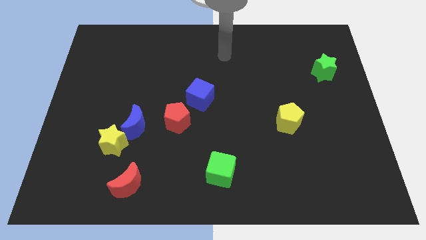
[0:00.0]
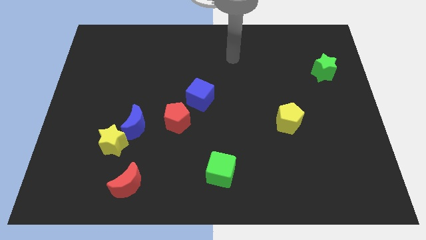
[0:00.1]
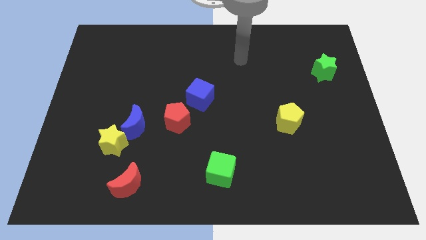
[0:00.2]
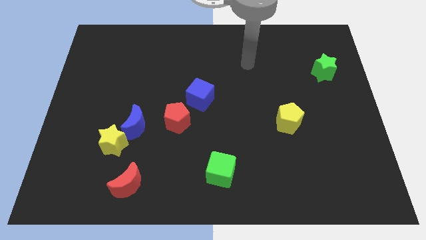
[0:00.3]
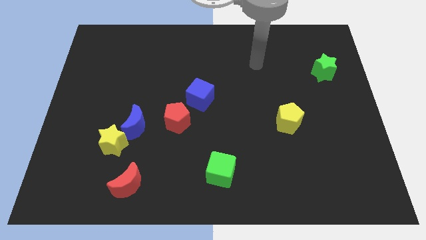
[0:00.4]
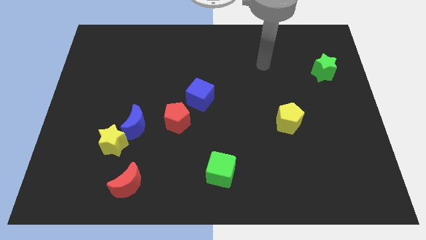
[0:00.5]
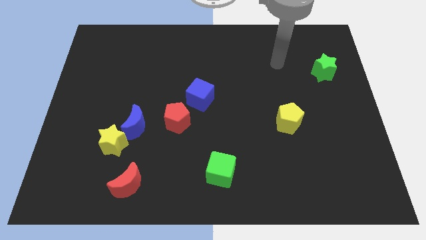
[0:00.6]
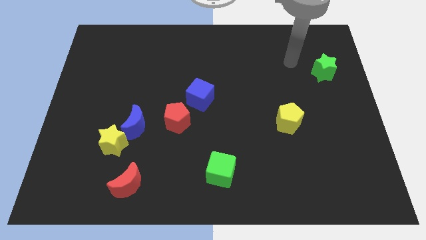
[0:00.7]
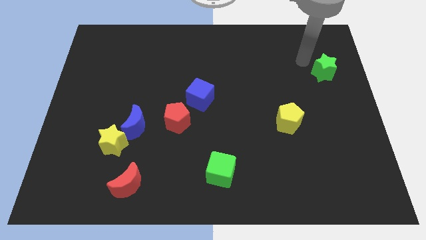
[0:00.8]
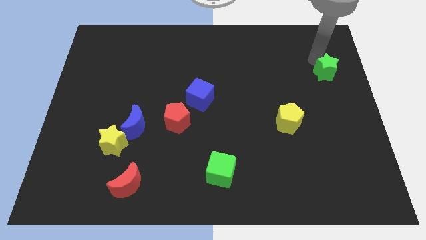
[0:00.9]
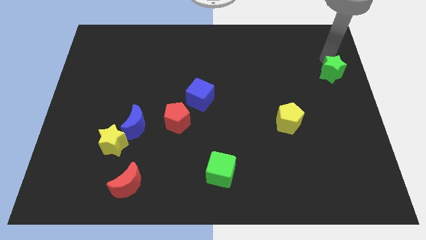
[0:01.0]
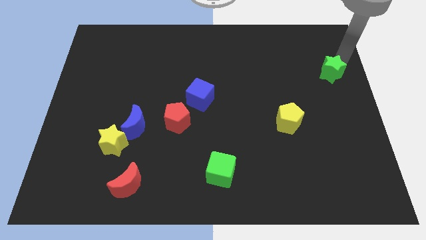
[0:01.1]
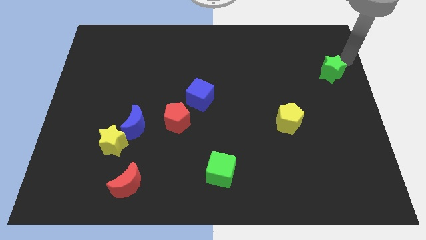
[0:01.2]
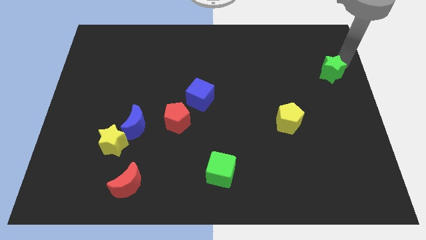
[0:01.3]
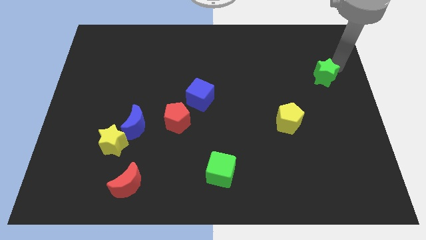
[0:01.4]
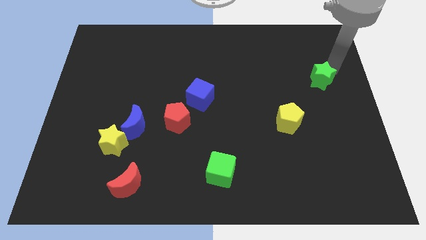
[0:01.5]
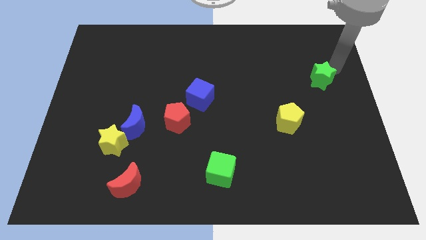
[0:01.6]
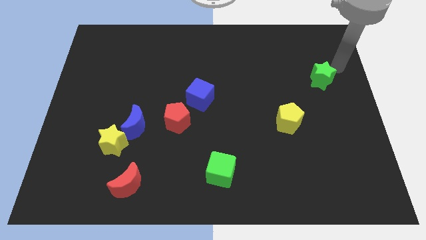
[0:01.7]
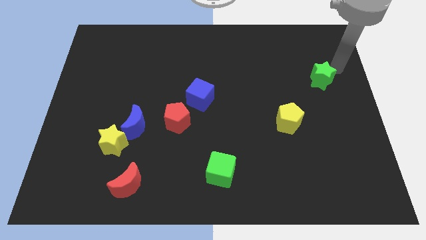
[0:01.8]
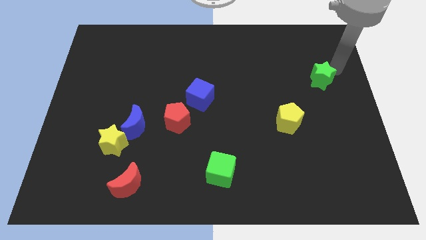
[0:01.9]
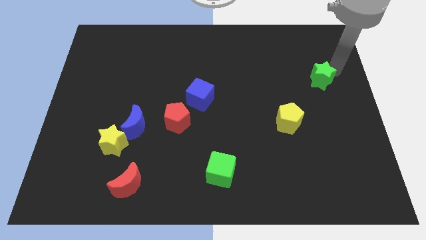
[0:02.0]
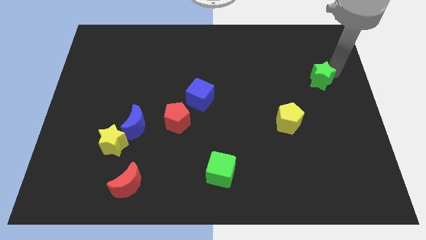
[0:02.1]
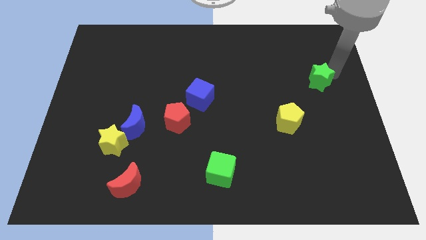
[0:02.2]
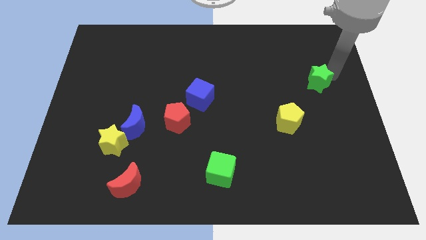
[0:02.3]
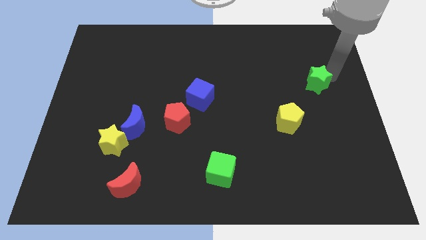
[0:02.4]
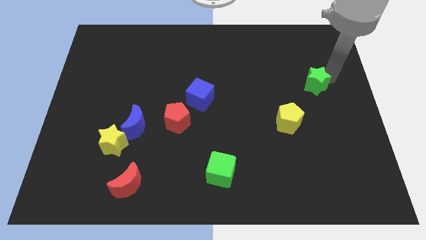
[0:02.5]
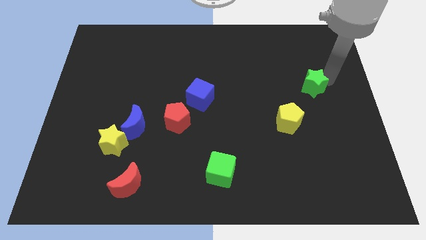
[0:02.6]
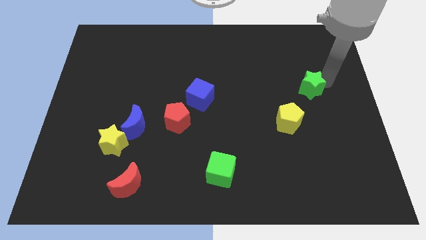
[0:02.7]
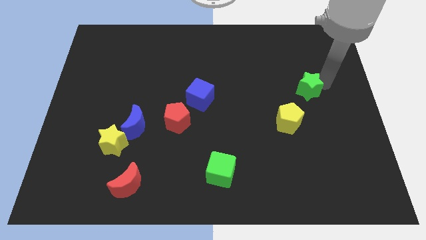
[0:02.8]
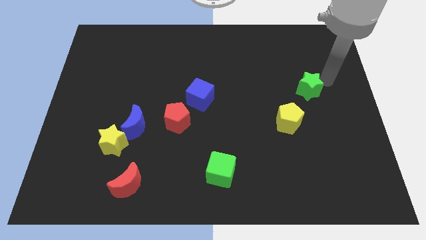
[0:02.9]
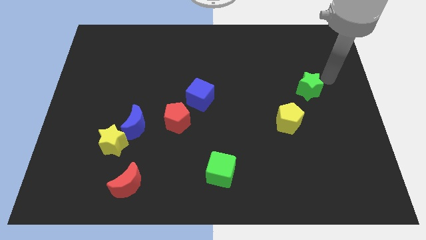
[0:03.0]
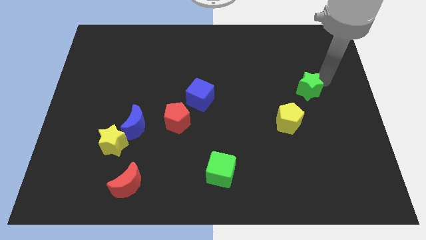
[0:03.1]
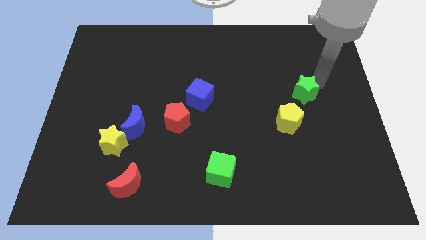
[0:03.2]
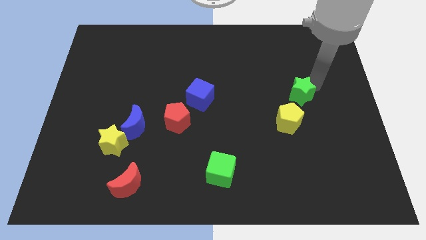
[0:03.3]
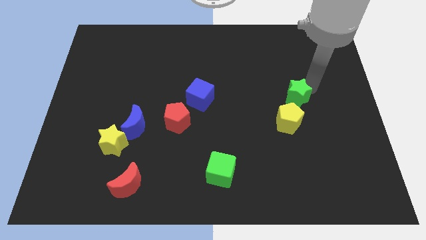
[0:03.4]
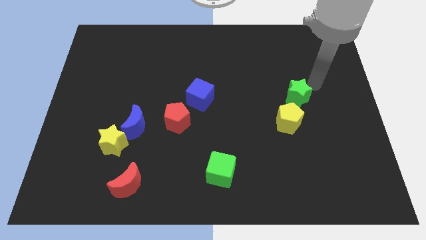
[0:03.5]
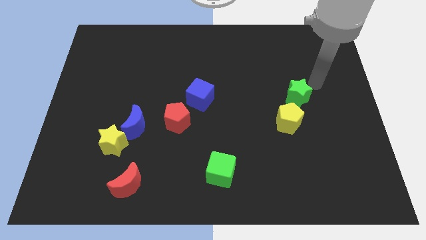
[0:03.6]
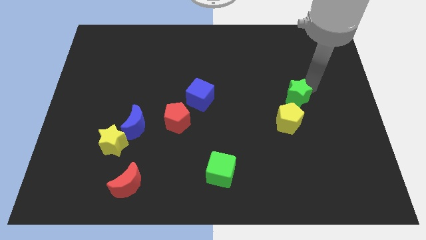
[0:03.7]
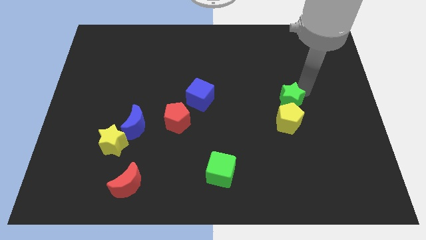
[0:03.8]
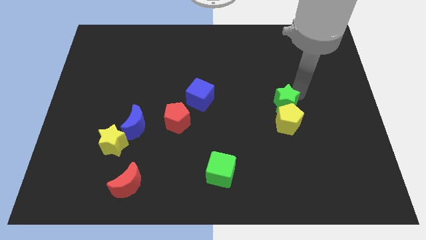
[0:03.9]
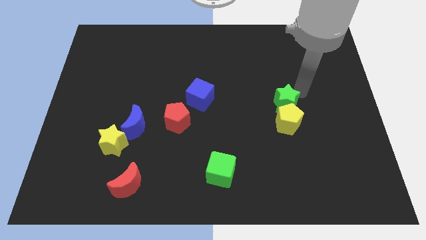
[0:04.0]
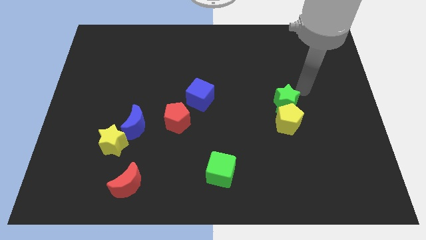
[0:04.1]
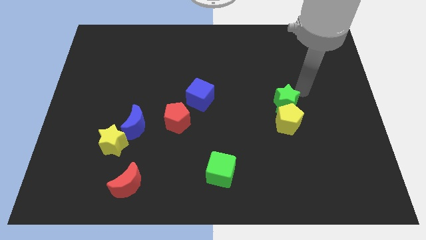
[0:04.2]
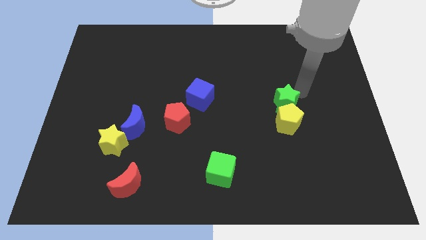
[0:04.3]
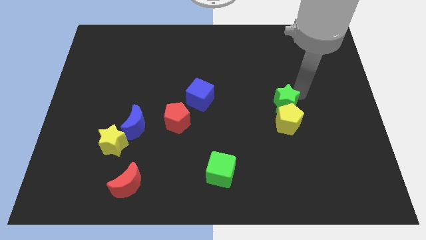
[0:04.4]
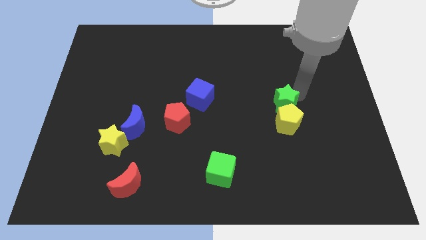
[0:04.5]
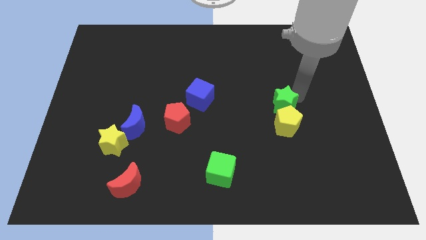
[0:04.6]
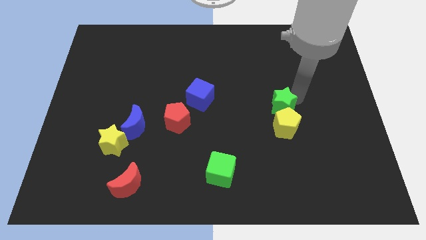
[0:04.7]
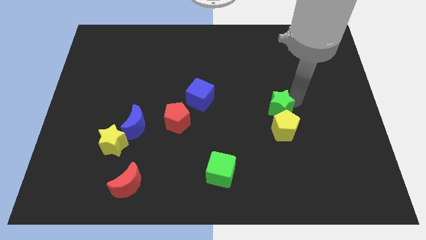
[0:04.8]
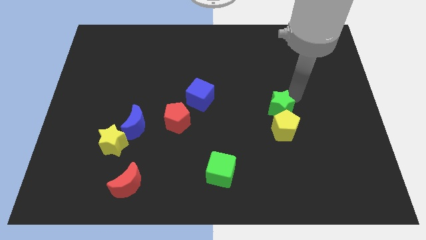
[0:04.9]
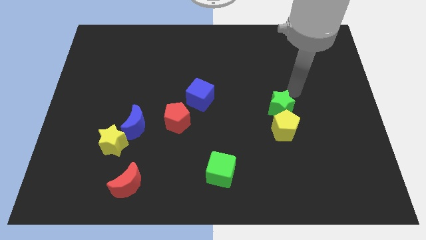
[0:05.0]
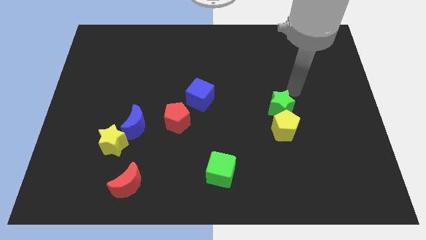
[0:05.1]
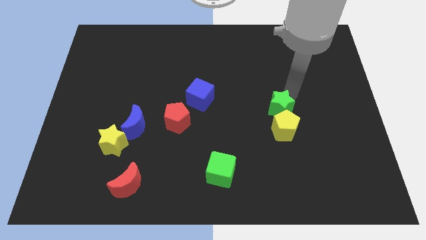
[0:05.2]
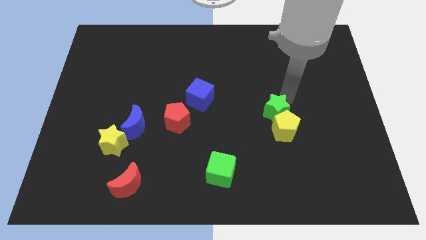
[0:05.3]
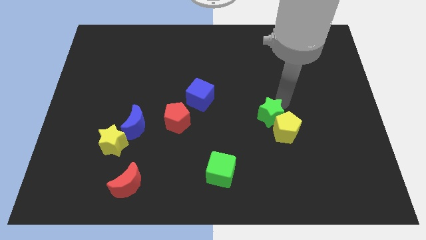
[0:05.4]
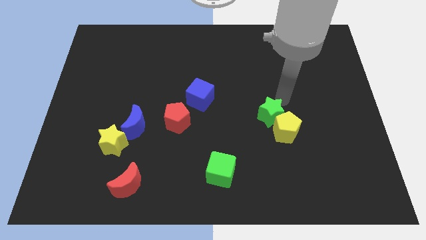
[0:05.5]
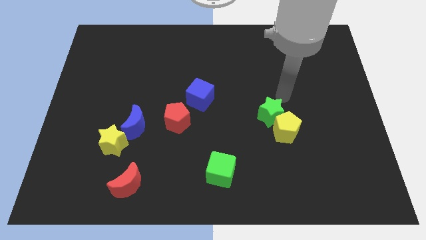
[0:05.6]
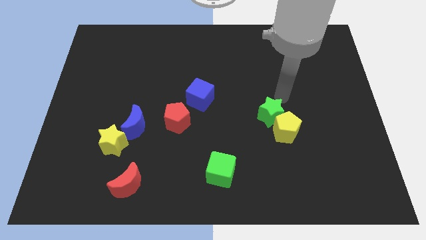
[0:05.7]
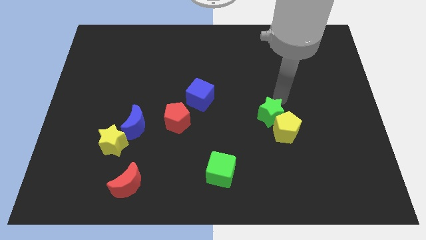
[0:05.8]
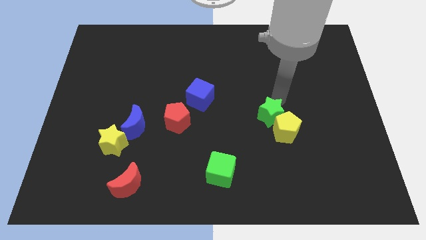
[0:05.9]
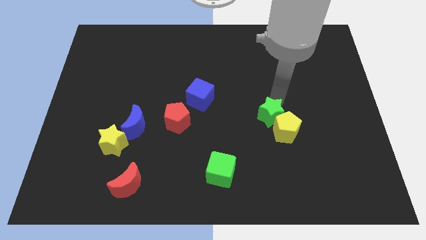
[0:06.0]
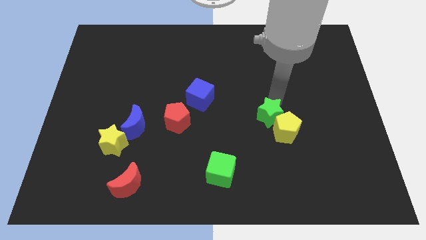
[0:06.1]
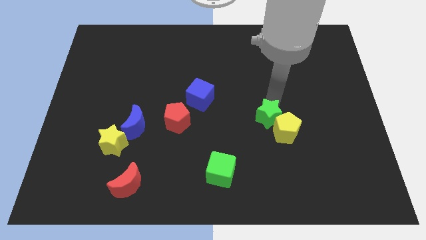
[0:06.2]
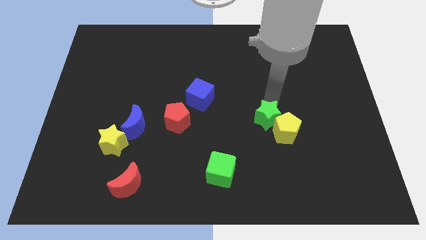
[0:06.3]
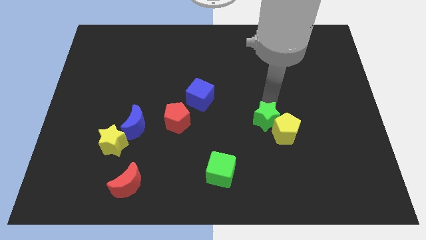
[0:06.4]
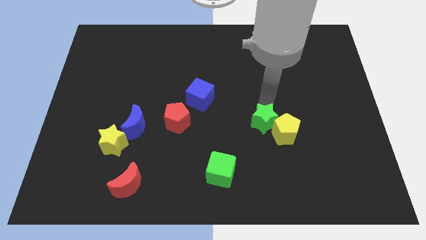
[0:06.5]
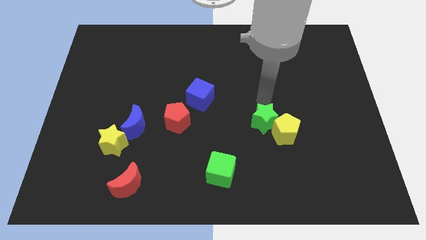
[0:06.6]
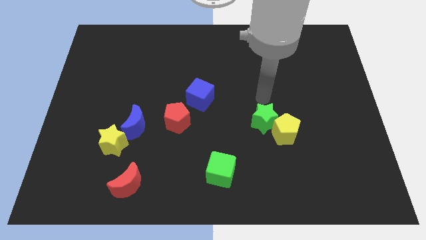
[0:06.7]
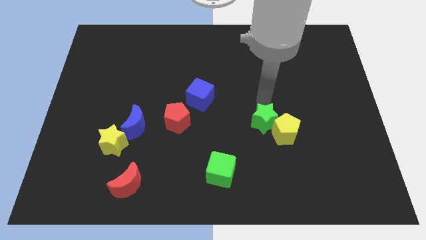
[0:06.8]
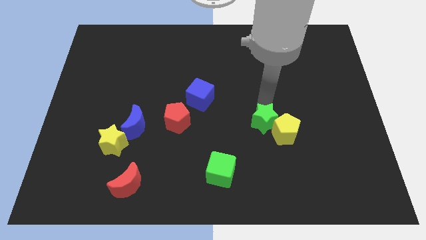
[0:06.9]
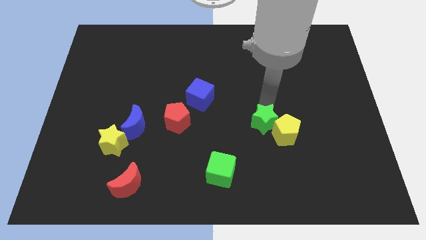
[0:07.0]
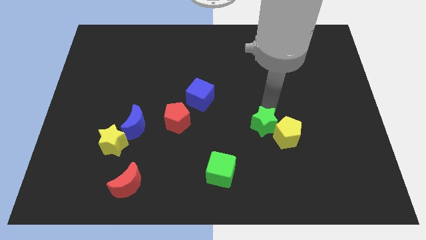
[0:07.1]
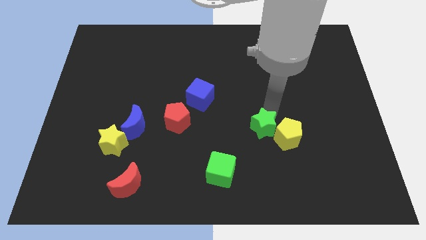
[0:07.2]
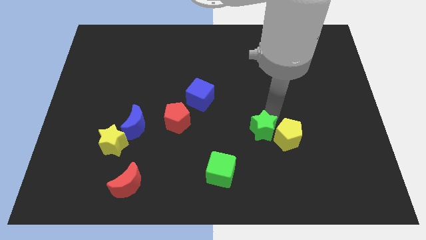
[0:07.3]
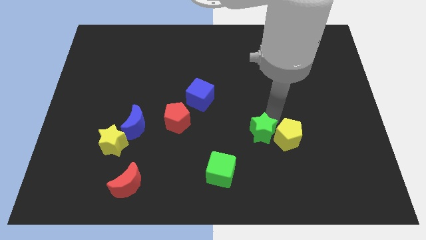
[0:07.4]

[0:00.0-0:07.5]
put the green star diagonally down and to the left of the yellow pentagon
